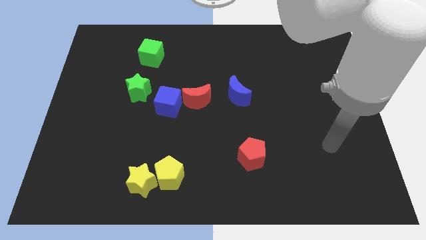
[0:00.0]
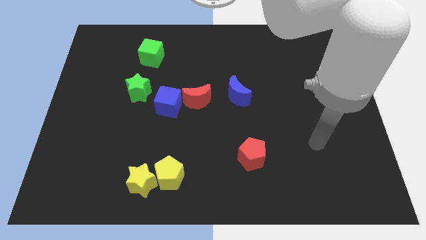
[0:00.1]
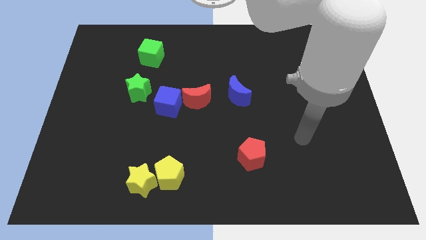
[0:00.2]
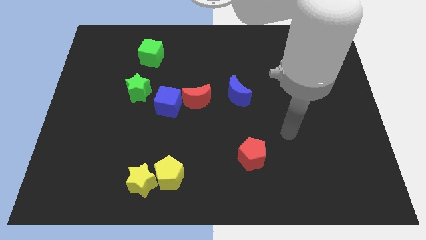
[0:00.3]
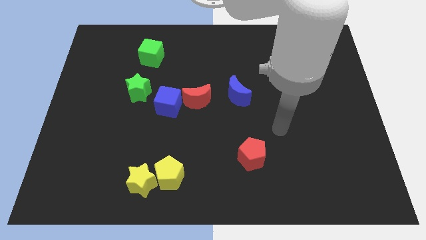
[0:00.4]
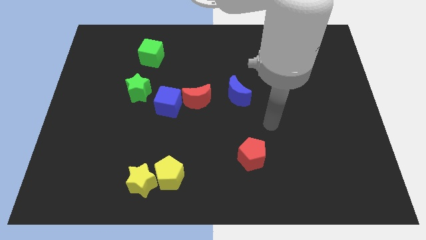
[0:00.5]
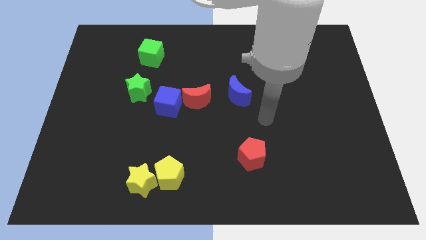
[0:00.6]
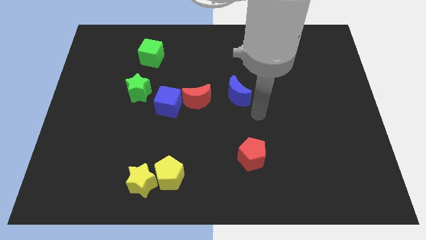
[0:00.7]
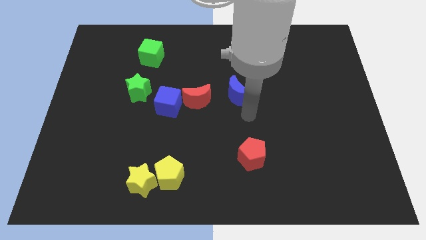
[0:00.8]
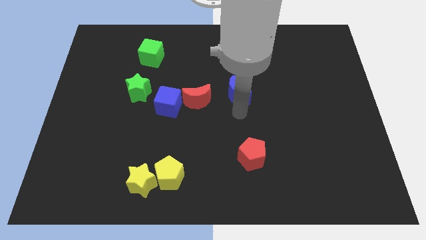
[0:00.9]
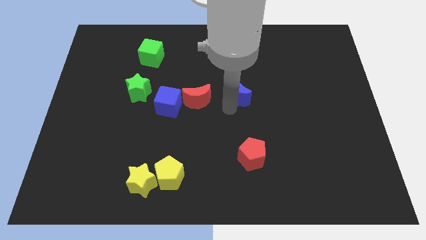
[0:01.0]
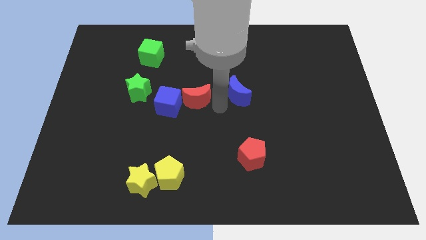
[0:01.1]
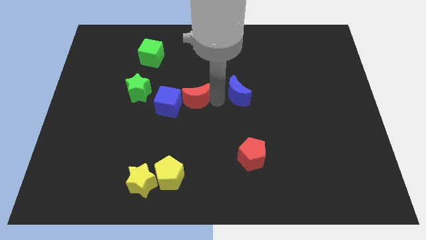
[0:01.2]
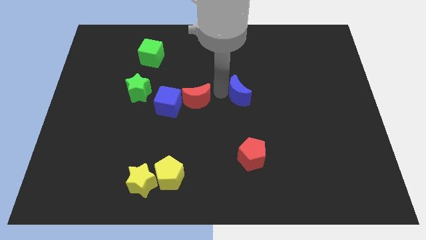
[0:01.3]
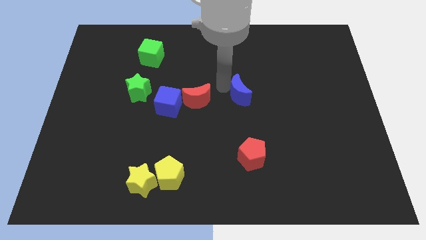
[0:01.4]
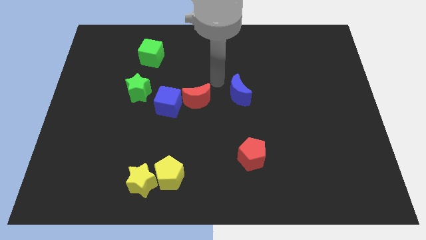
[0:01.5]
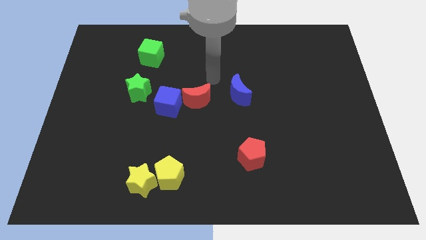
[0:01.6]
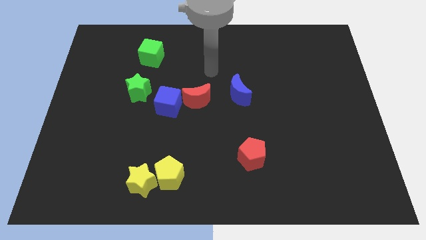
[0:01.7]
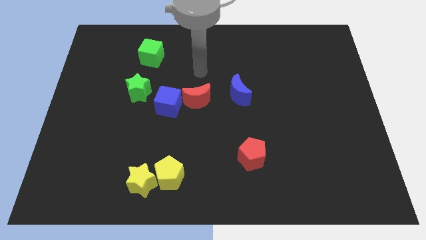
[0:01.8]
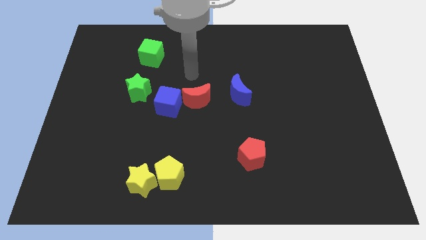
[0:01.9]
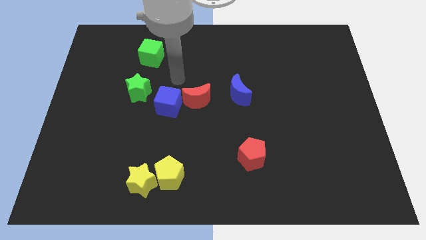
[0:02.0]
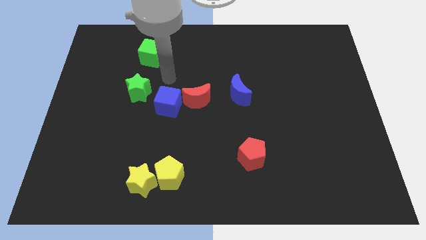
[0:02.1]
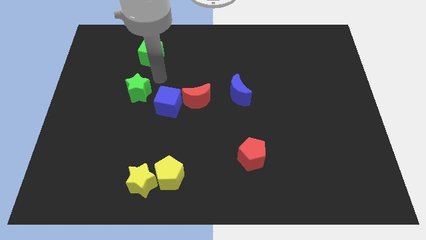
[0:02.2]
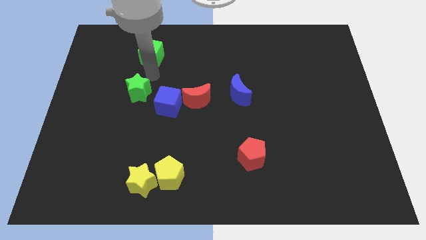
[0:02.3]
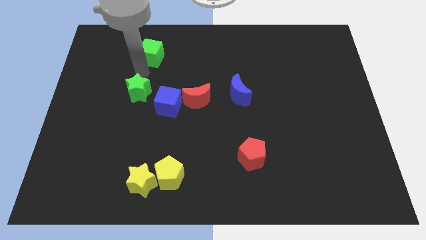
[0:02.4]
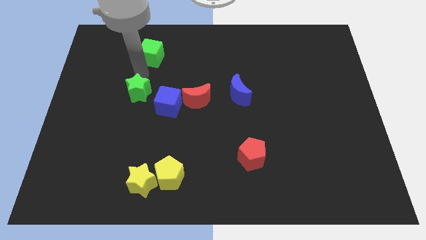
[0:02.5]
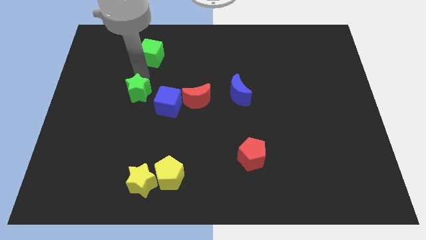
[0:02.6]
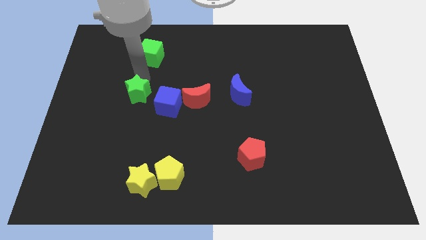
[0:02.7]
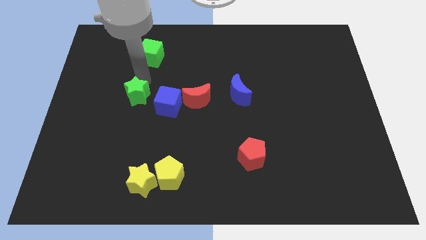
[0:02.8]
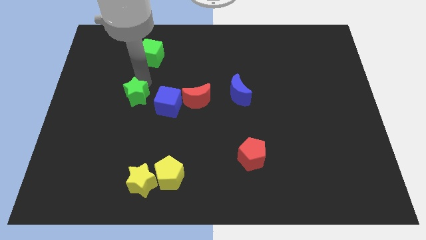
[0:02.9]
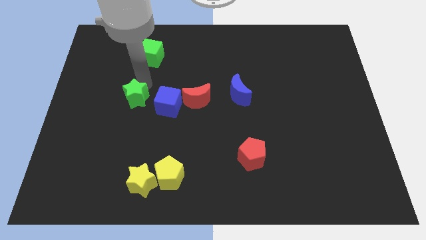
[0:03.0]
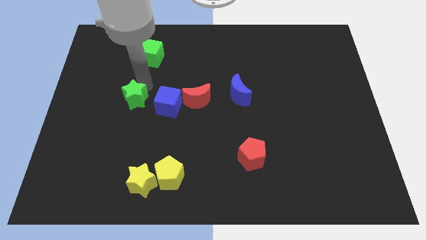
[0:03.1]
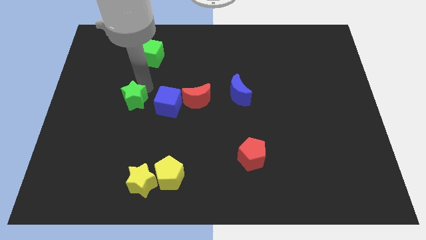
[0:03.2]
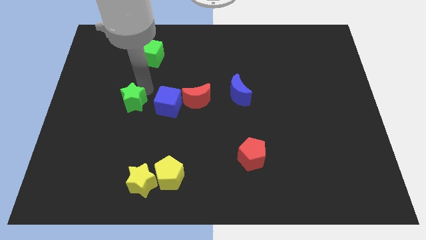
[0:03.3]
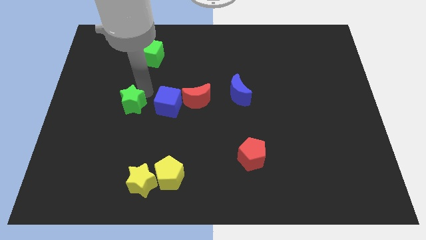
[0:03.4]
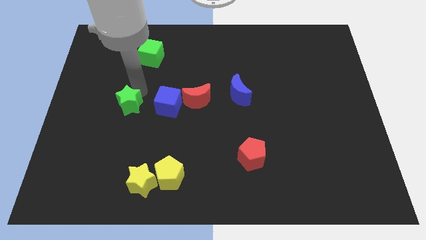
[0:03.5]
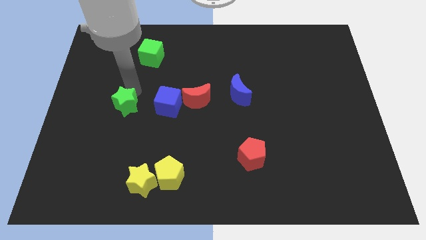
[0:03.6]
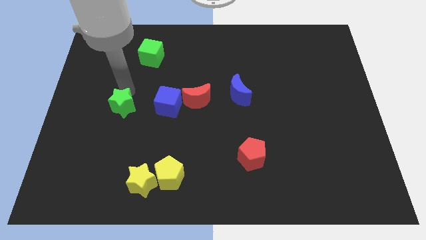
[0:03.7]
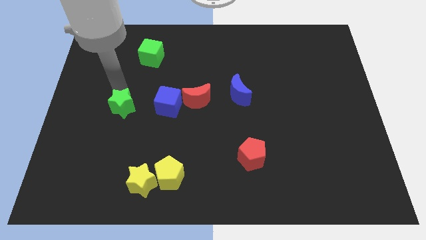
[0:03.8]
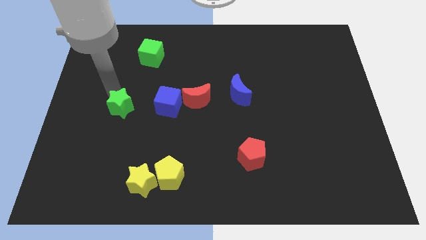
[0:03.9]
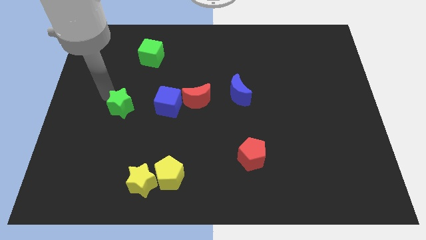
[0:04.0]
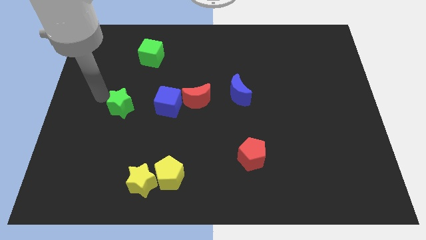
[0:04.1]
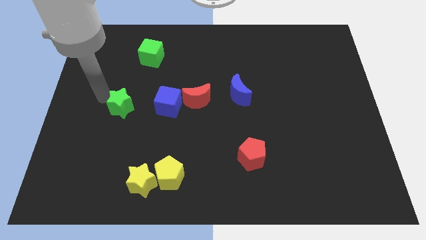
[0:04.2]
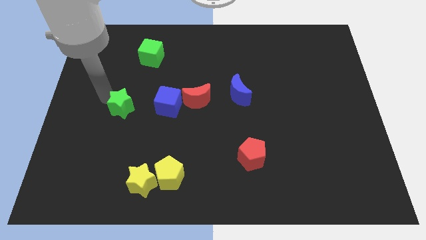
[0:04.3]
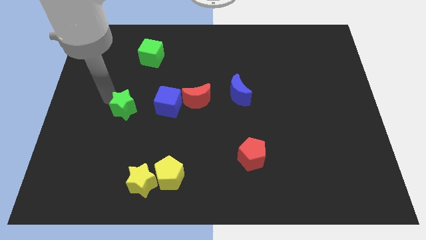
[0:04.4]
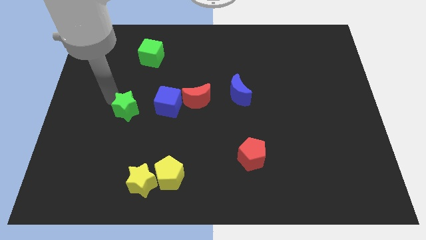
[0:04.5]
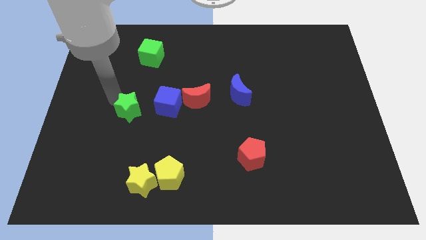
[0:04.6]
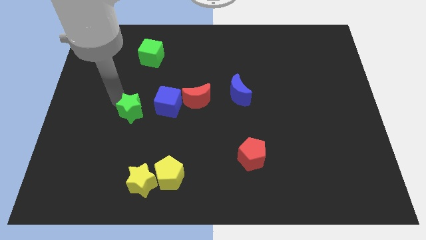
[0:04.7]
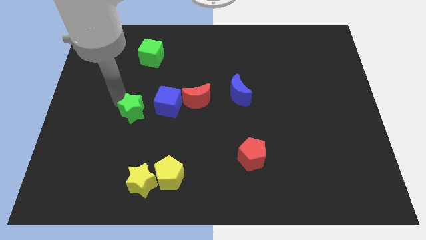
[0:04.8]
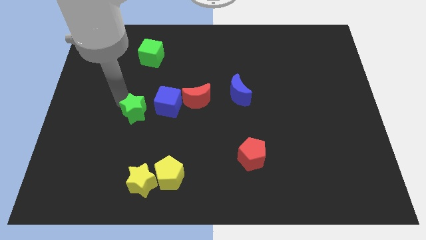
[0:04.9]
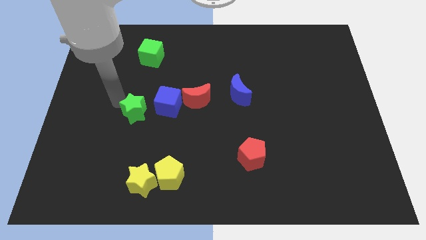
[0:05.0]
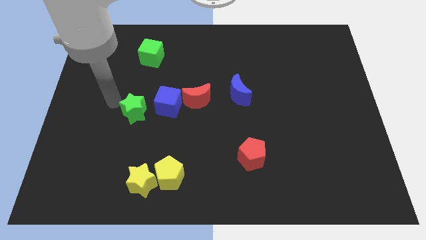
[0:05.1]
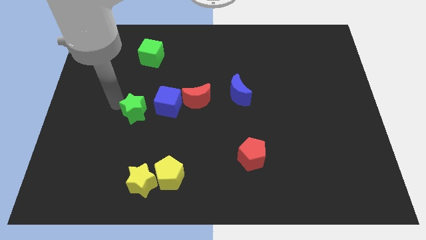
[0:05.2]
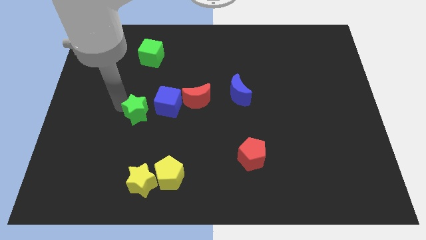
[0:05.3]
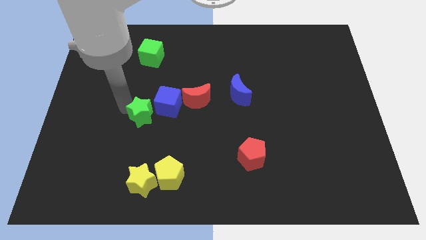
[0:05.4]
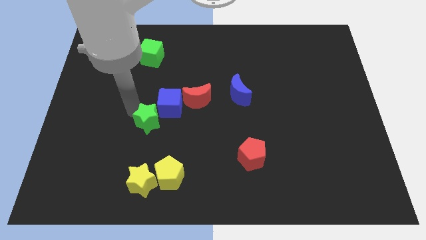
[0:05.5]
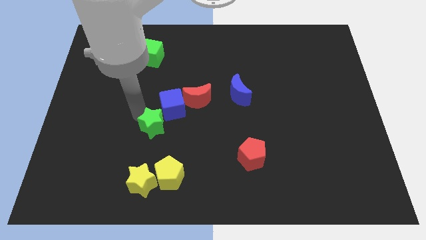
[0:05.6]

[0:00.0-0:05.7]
move the green star to the bottom left side of the red moon

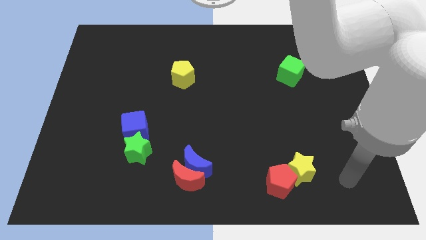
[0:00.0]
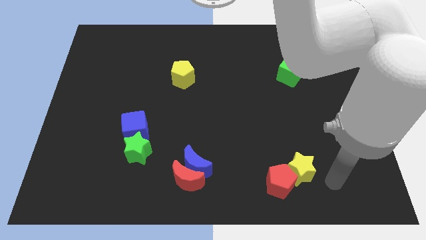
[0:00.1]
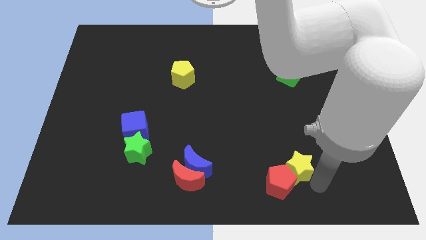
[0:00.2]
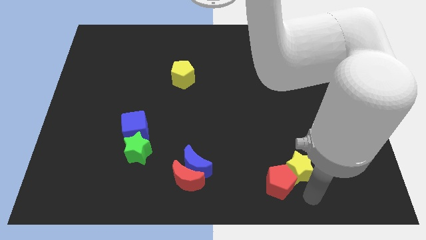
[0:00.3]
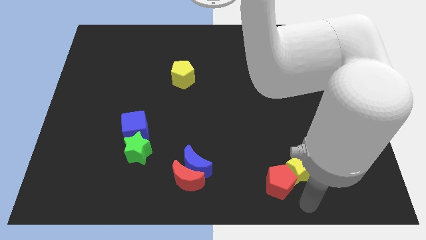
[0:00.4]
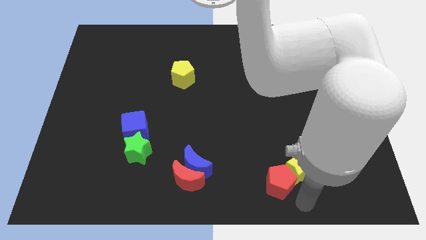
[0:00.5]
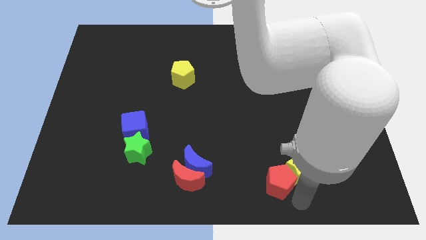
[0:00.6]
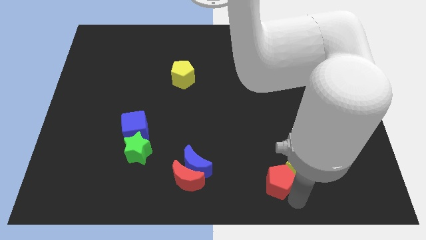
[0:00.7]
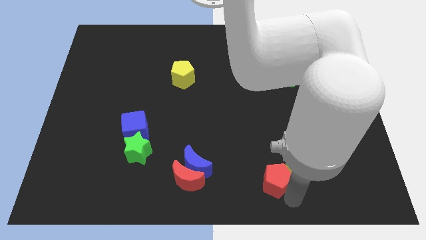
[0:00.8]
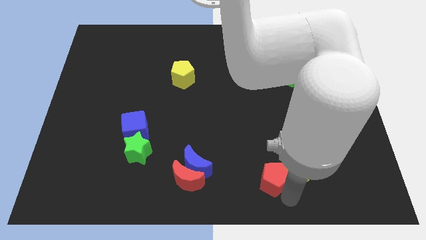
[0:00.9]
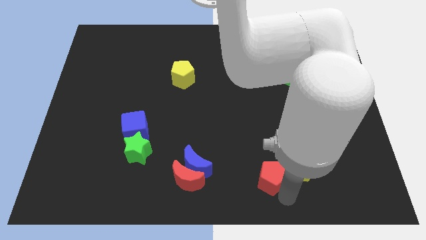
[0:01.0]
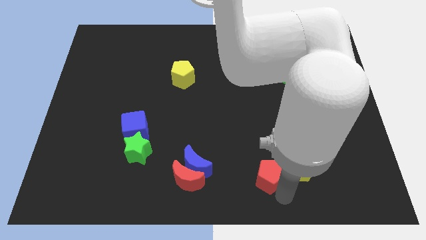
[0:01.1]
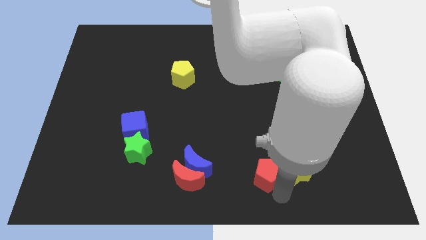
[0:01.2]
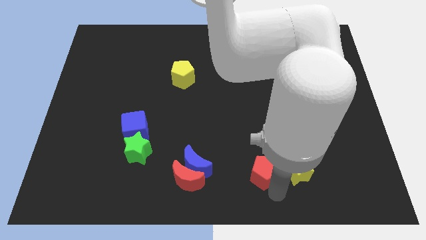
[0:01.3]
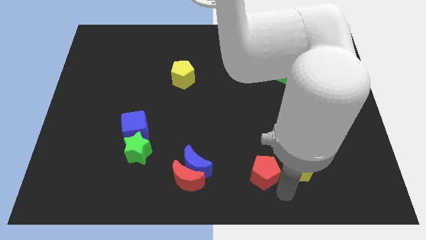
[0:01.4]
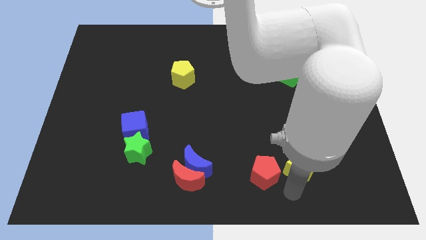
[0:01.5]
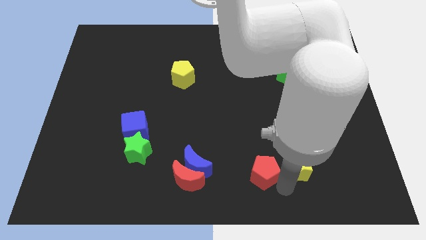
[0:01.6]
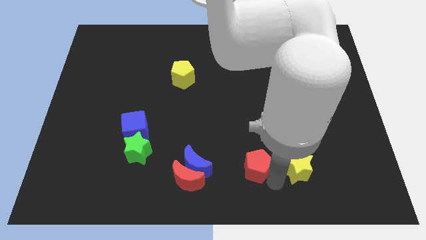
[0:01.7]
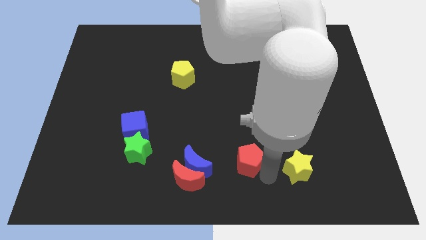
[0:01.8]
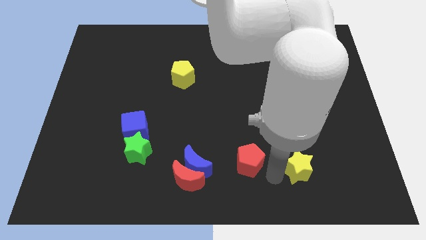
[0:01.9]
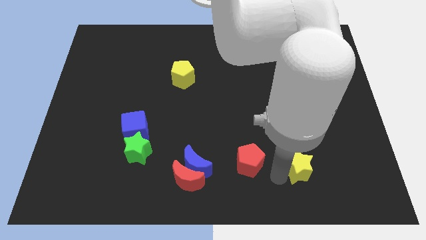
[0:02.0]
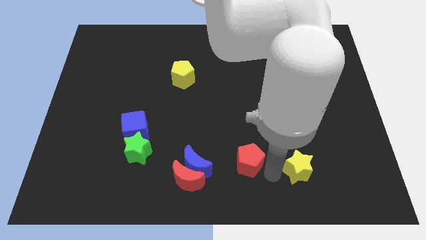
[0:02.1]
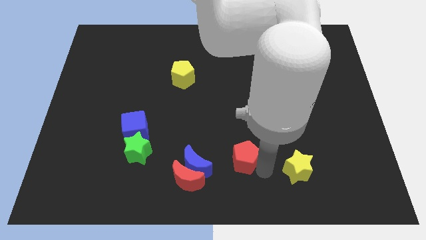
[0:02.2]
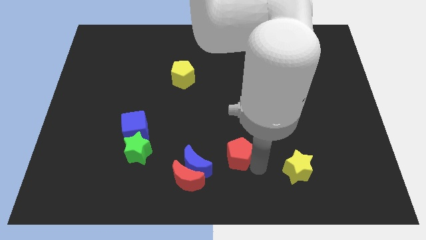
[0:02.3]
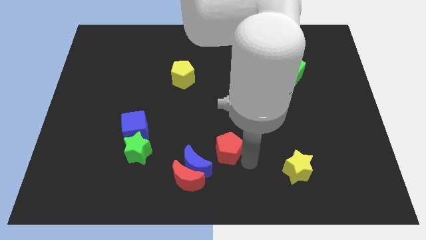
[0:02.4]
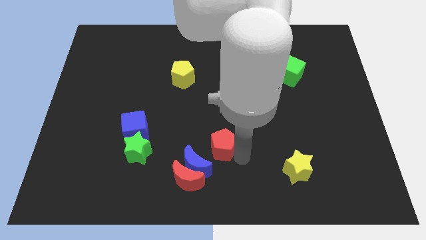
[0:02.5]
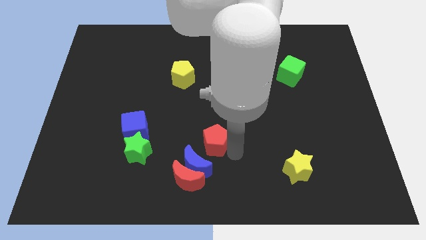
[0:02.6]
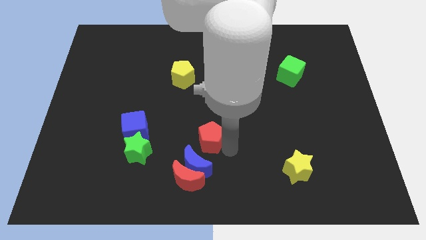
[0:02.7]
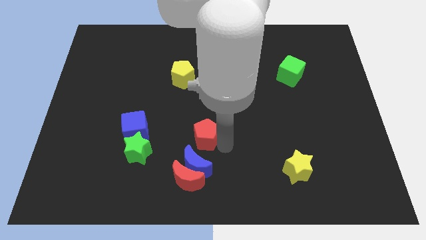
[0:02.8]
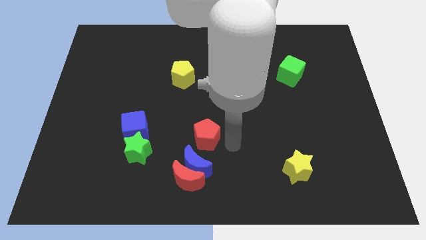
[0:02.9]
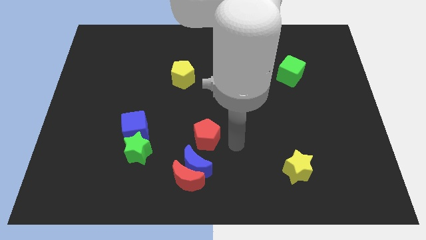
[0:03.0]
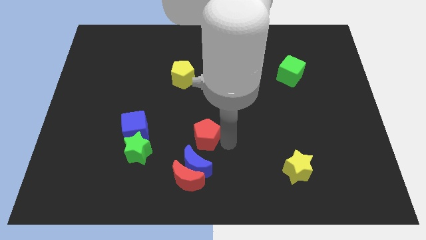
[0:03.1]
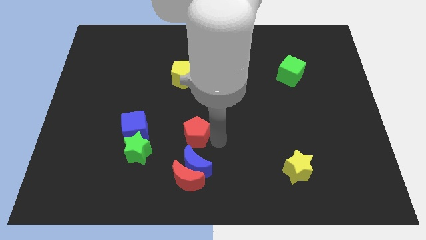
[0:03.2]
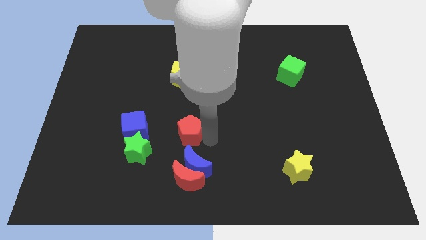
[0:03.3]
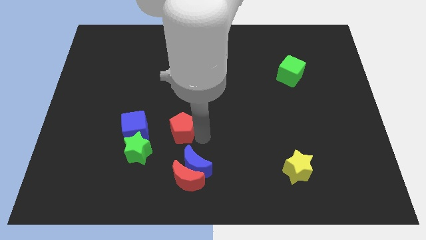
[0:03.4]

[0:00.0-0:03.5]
slide the red pentagon to the top right side of the green star
